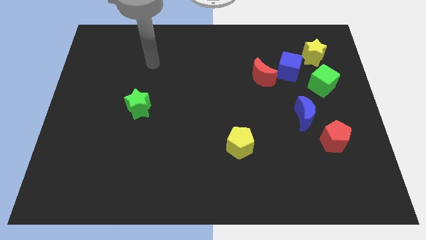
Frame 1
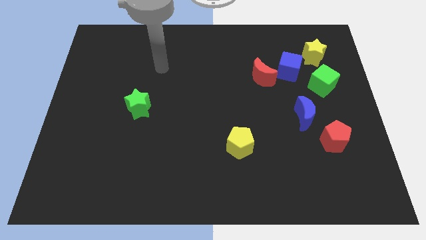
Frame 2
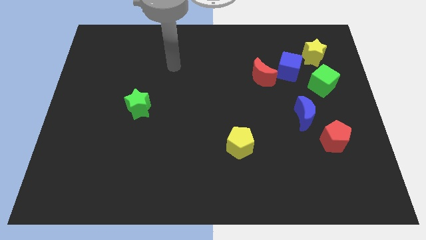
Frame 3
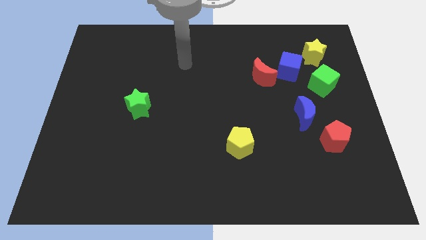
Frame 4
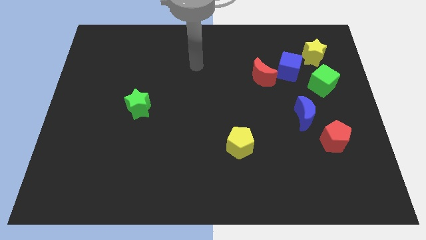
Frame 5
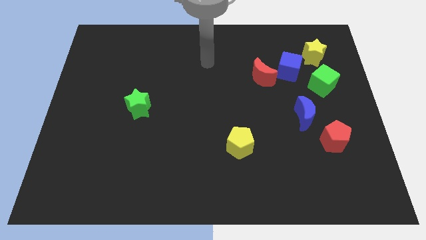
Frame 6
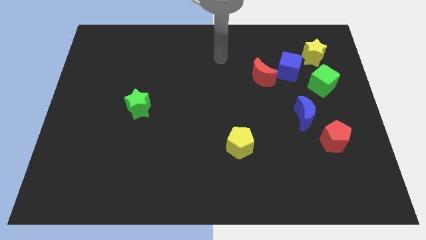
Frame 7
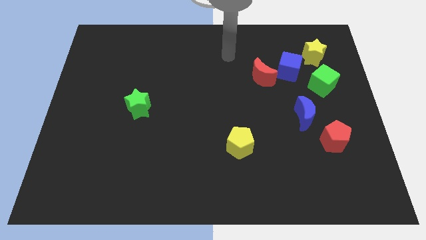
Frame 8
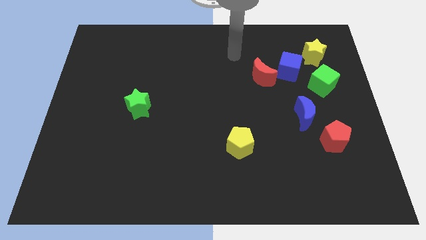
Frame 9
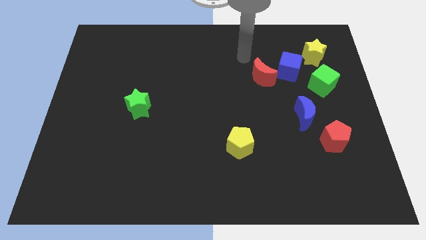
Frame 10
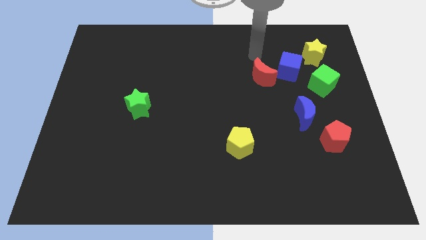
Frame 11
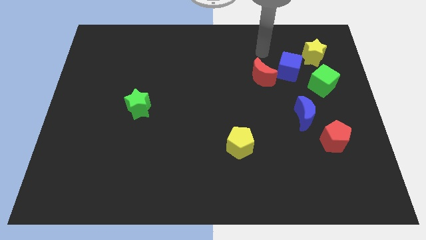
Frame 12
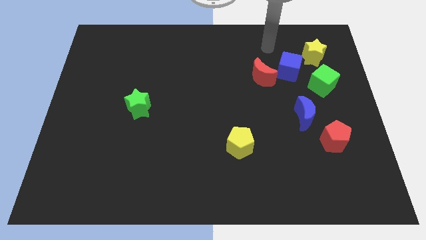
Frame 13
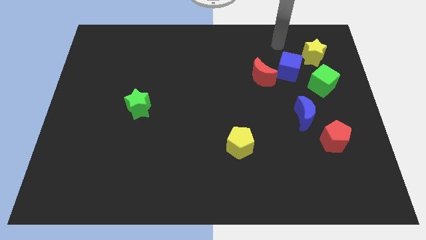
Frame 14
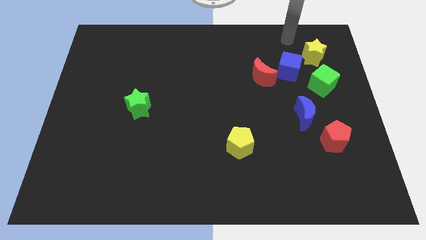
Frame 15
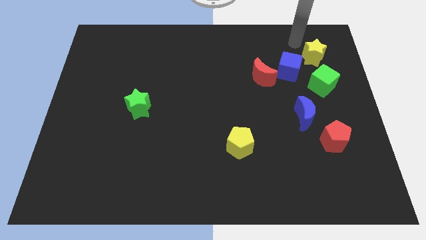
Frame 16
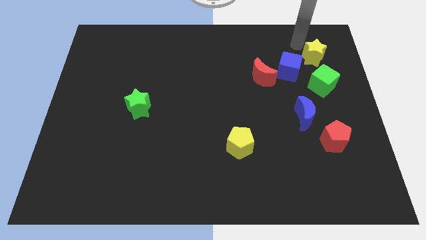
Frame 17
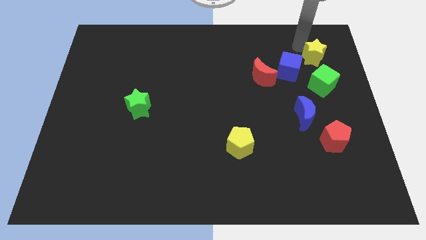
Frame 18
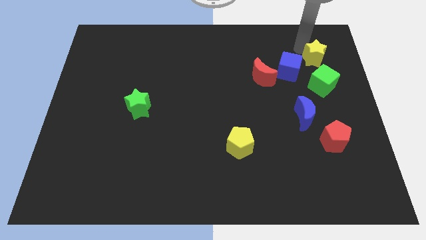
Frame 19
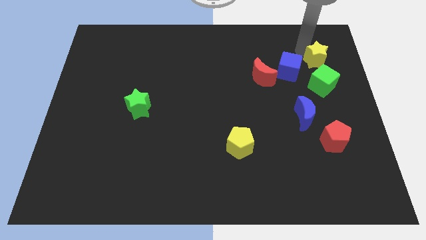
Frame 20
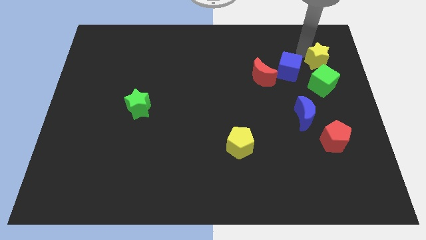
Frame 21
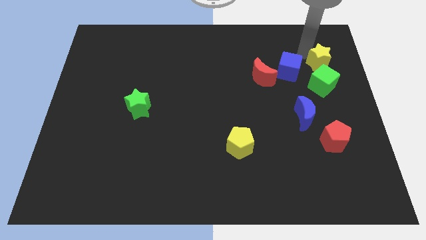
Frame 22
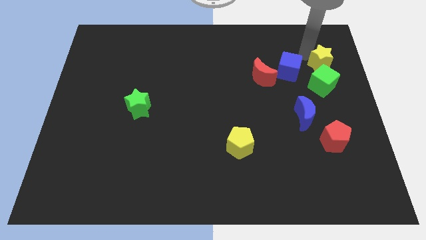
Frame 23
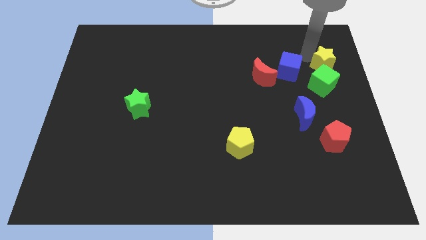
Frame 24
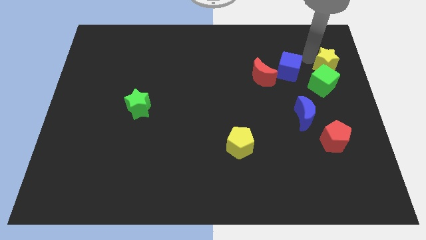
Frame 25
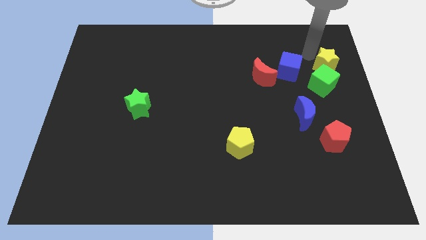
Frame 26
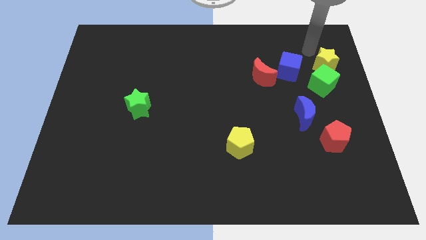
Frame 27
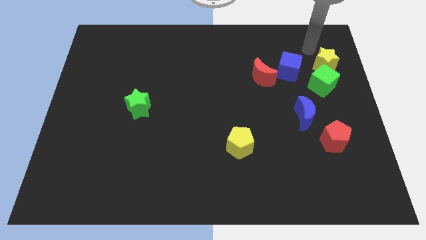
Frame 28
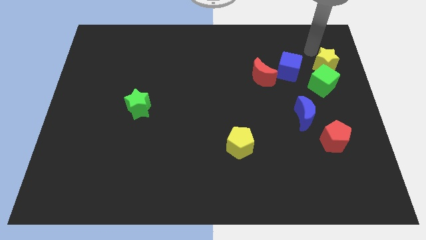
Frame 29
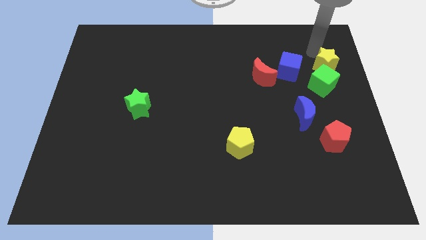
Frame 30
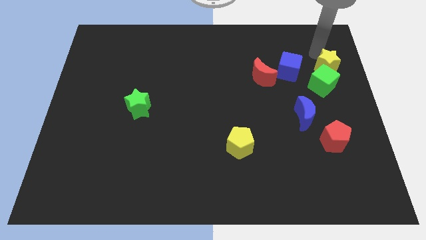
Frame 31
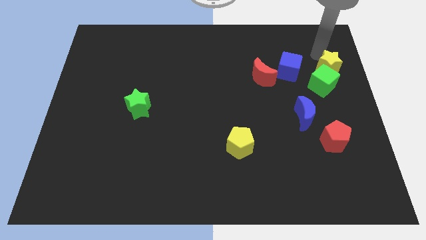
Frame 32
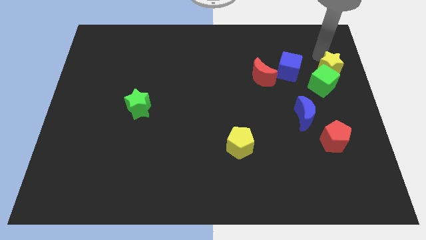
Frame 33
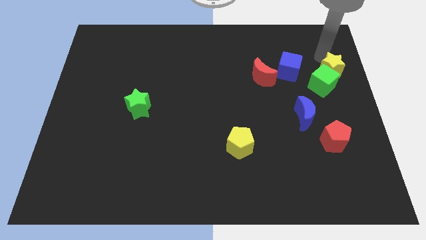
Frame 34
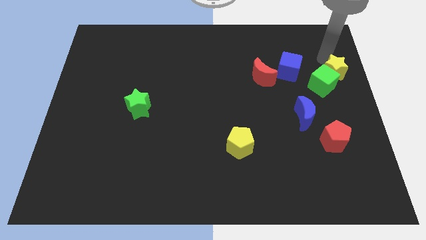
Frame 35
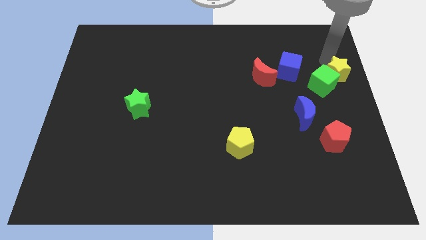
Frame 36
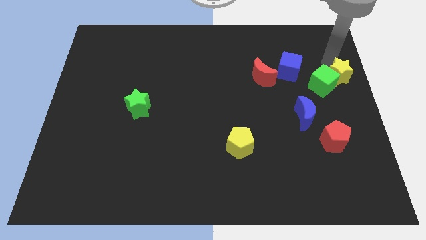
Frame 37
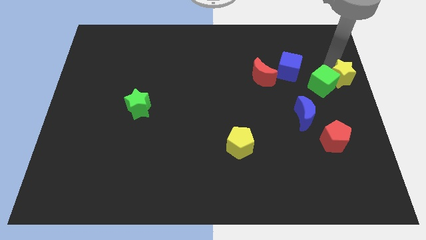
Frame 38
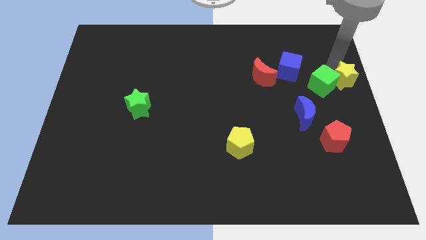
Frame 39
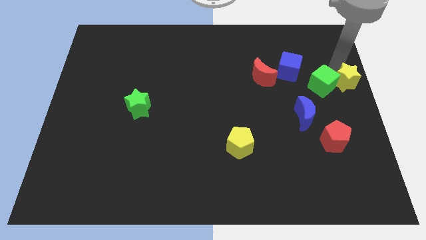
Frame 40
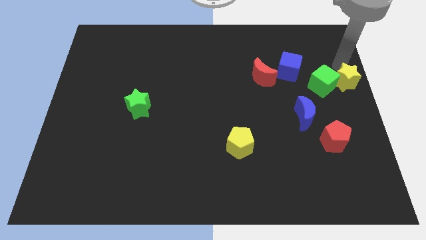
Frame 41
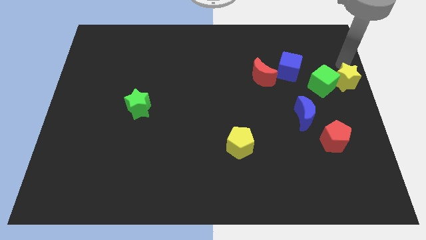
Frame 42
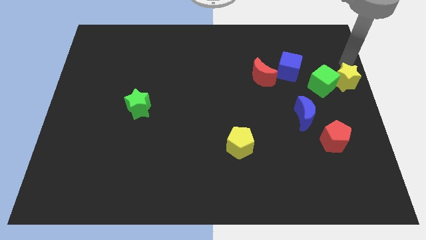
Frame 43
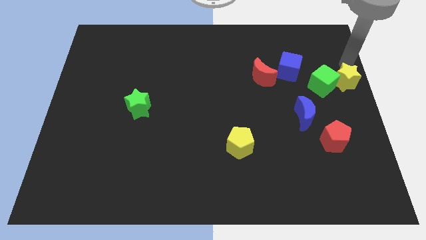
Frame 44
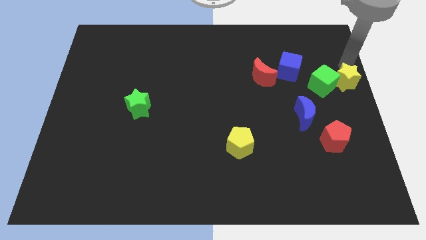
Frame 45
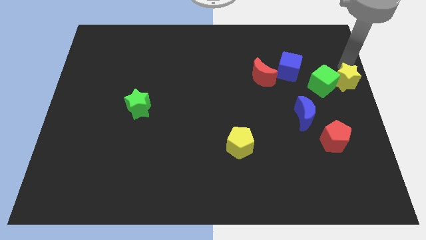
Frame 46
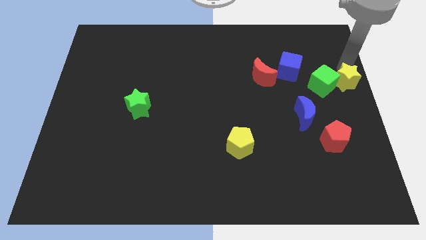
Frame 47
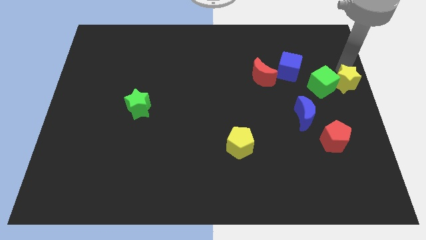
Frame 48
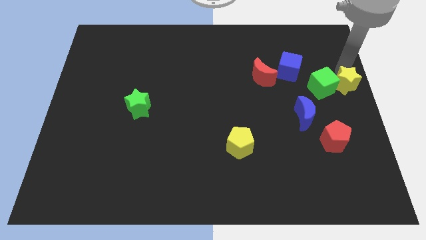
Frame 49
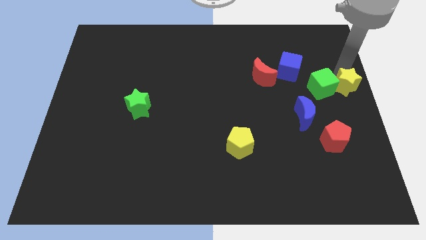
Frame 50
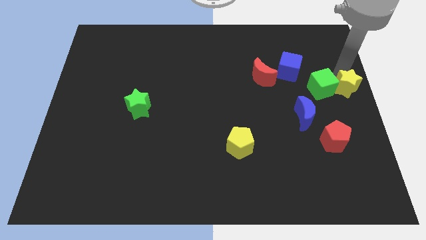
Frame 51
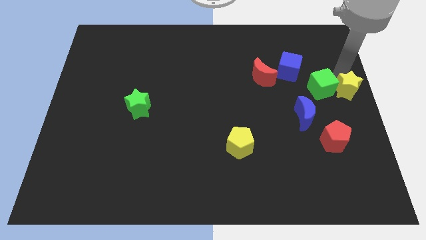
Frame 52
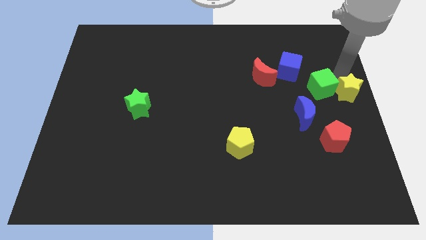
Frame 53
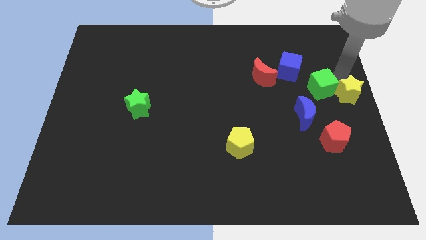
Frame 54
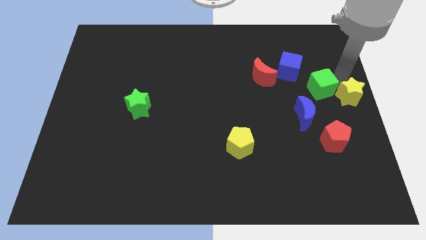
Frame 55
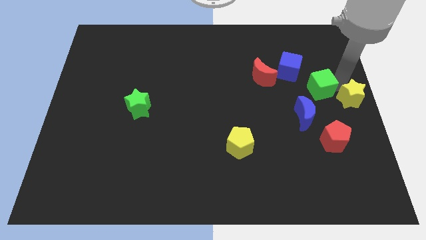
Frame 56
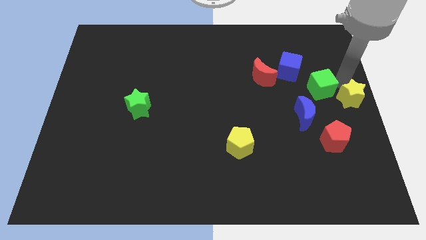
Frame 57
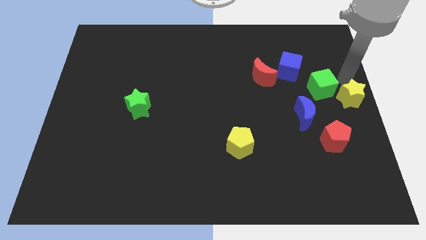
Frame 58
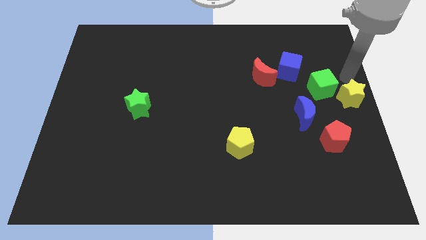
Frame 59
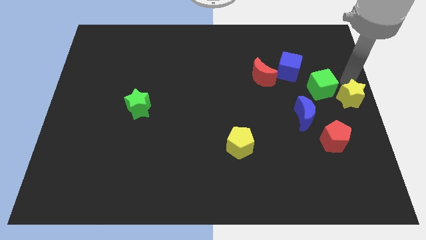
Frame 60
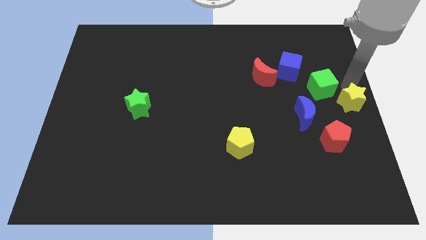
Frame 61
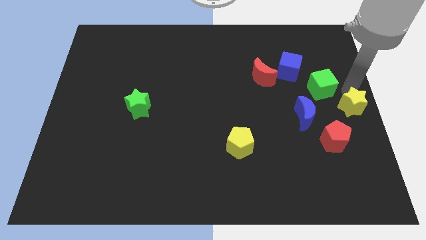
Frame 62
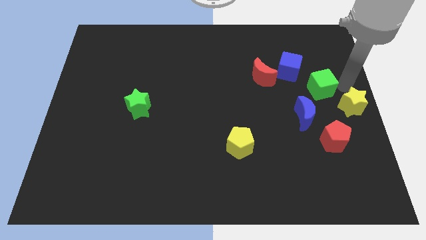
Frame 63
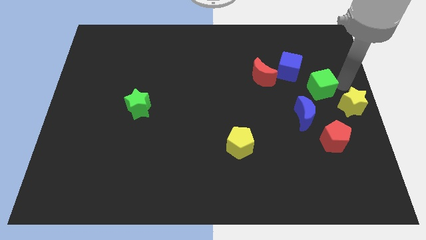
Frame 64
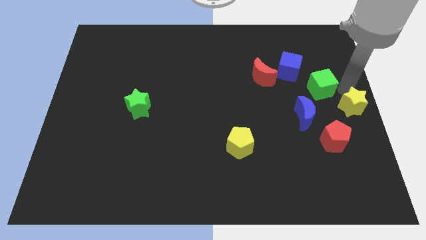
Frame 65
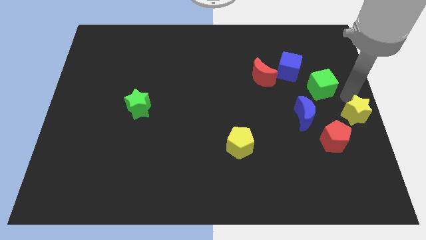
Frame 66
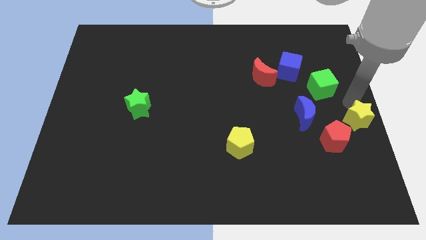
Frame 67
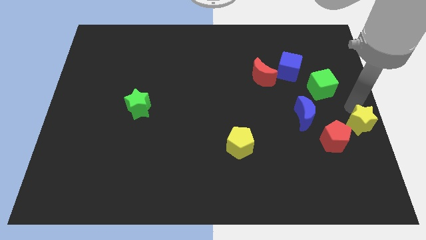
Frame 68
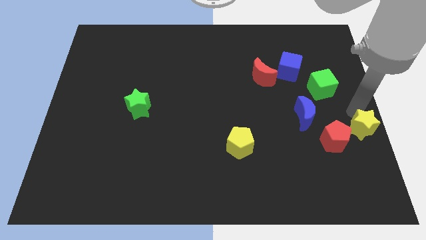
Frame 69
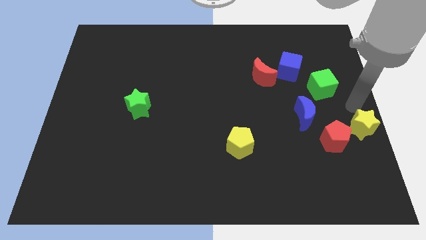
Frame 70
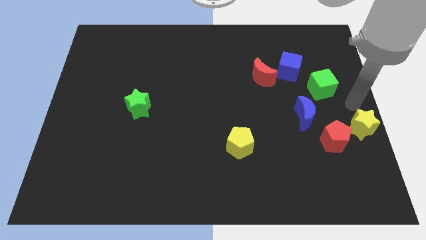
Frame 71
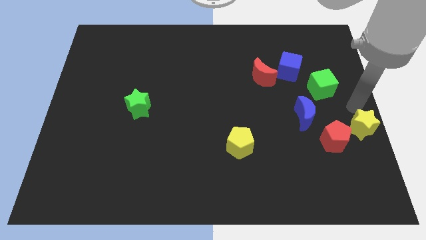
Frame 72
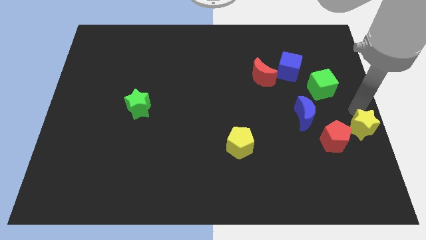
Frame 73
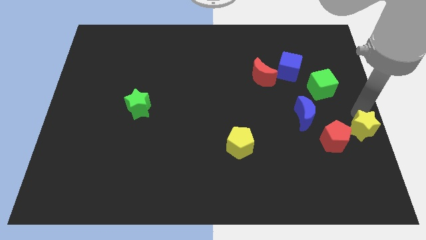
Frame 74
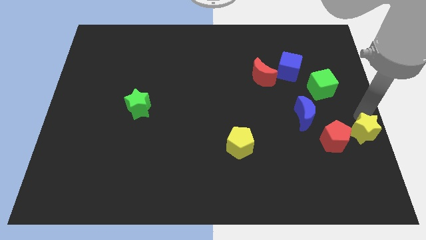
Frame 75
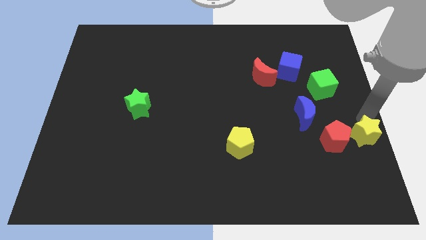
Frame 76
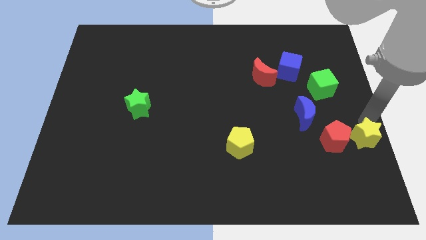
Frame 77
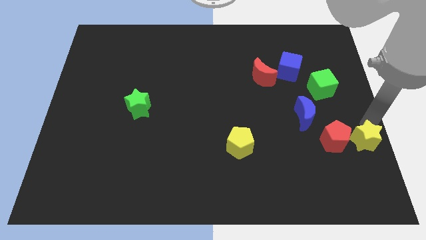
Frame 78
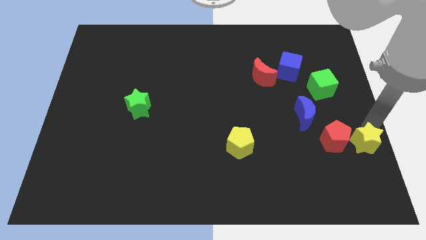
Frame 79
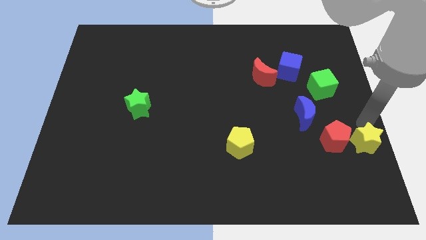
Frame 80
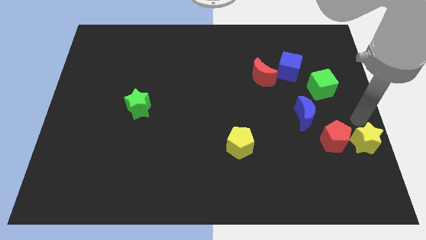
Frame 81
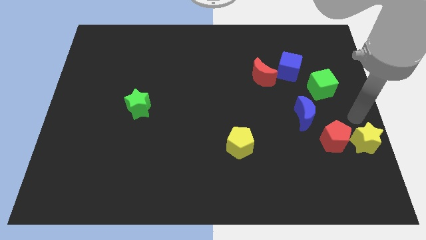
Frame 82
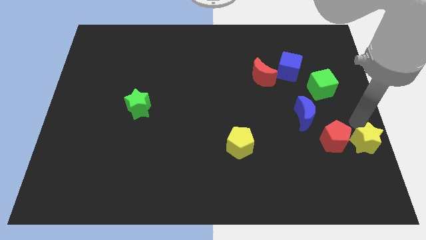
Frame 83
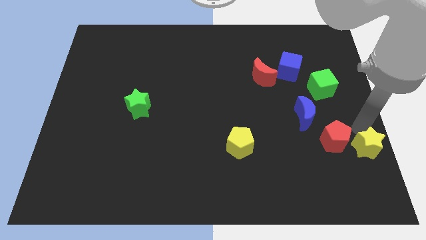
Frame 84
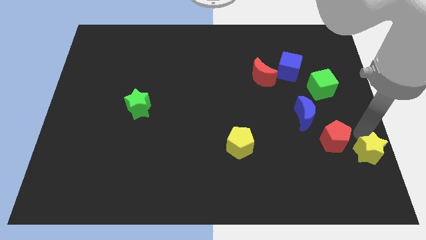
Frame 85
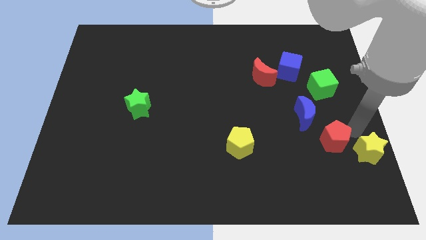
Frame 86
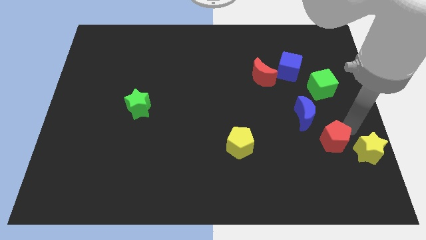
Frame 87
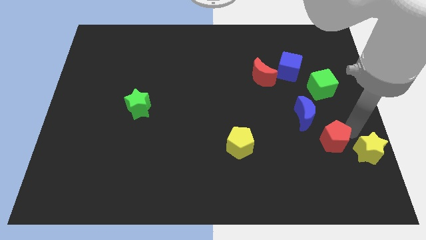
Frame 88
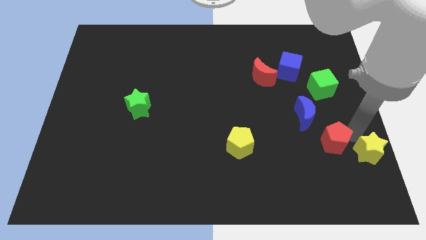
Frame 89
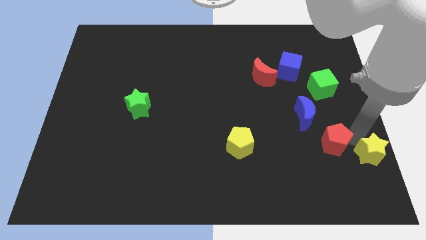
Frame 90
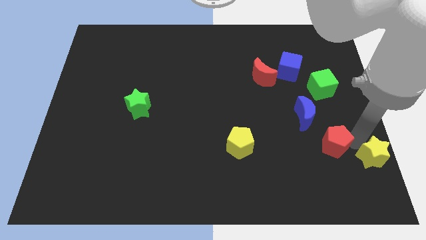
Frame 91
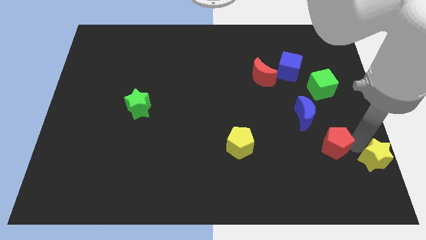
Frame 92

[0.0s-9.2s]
slide the yellow star to the bottom right of the board
